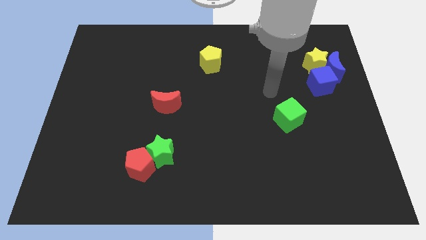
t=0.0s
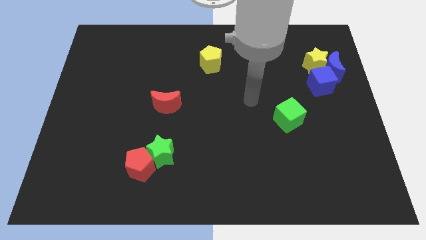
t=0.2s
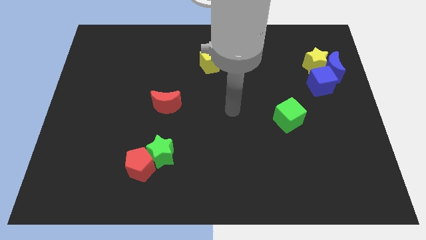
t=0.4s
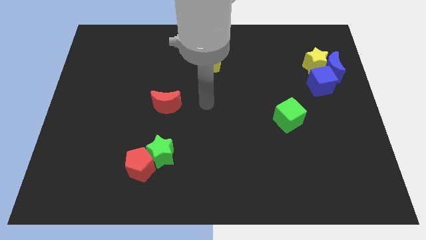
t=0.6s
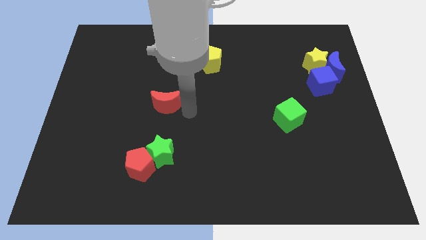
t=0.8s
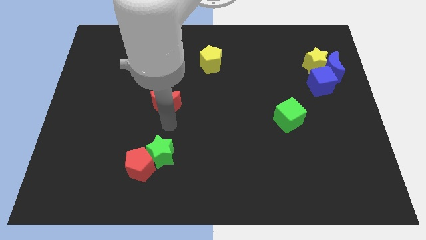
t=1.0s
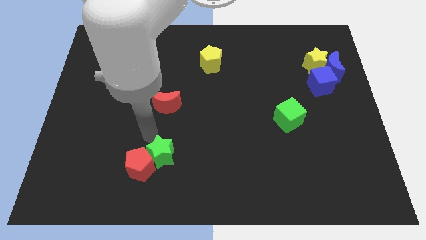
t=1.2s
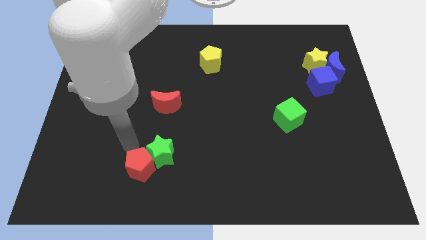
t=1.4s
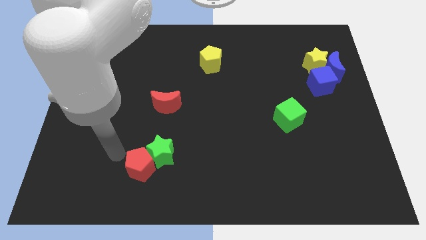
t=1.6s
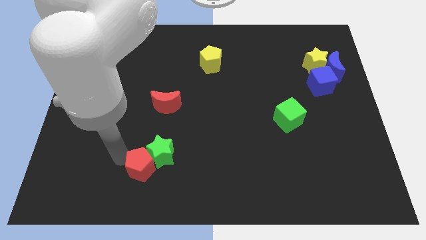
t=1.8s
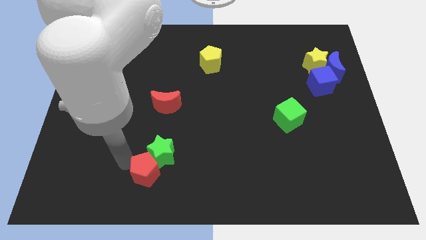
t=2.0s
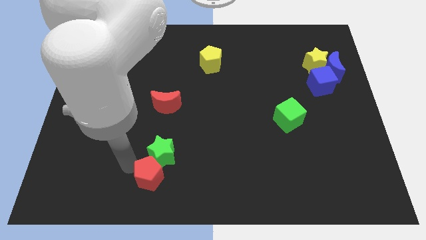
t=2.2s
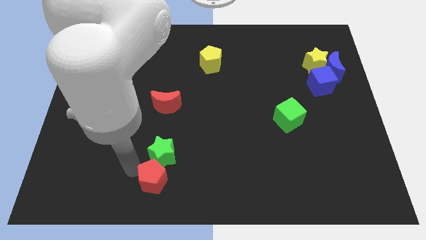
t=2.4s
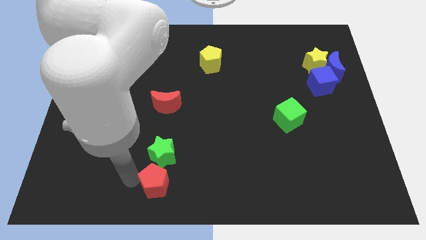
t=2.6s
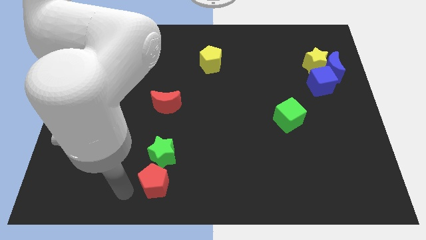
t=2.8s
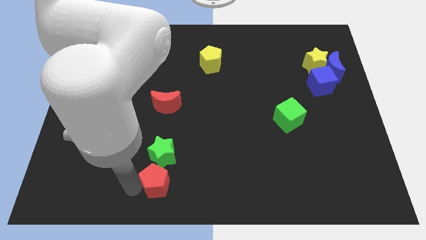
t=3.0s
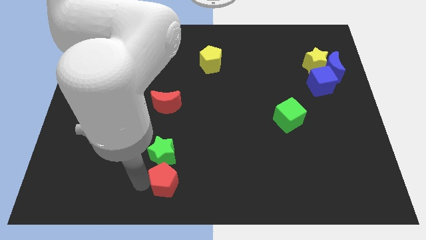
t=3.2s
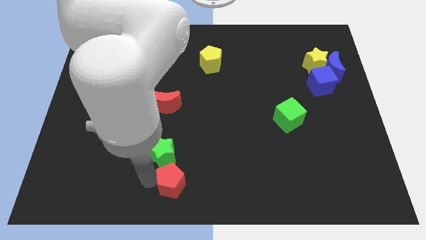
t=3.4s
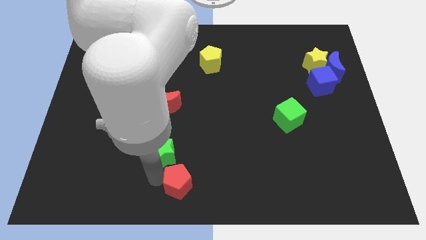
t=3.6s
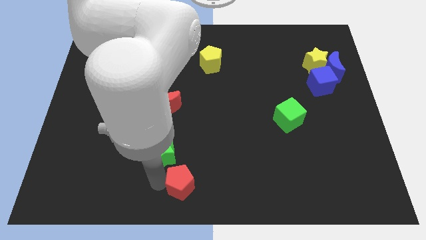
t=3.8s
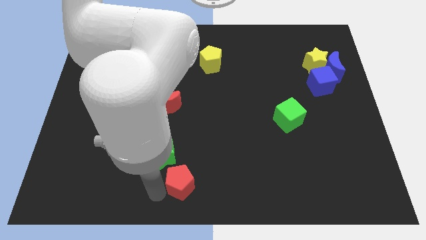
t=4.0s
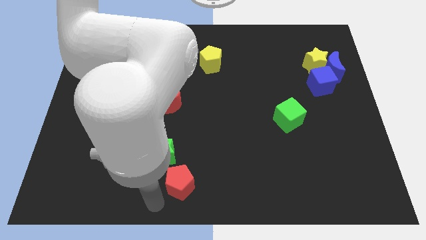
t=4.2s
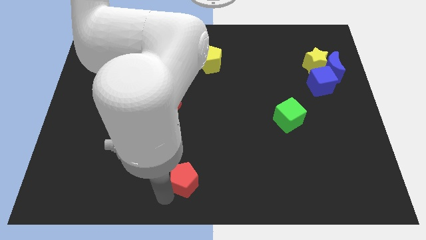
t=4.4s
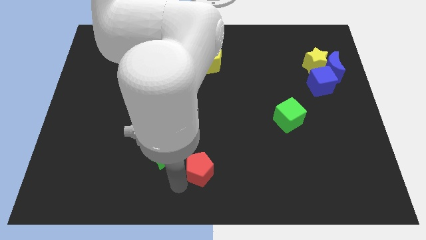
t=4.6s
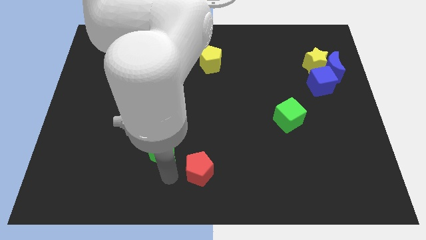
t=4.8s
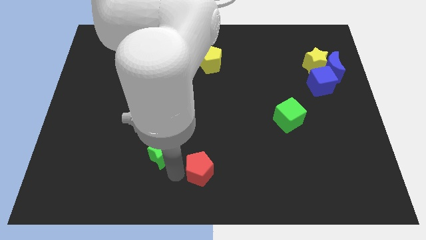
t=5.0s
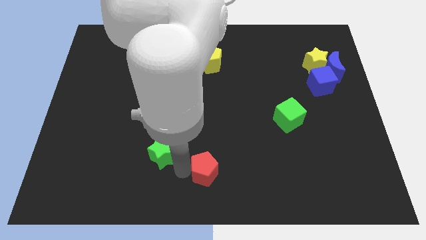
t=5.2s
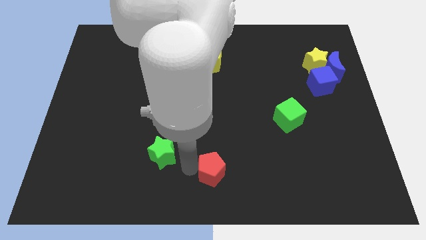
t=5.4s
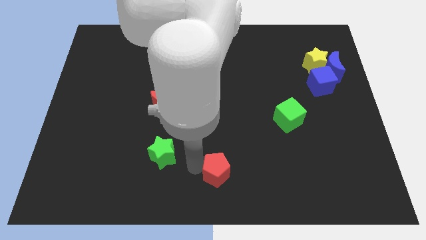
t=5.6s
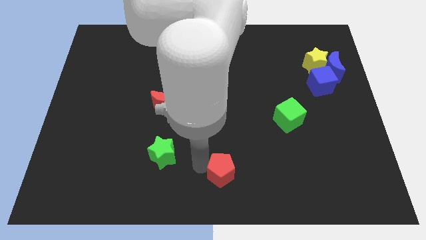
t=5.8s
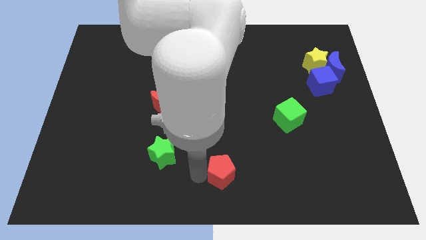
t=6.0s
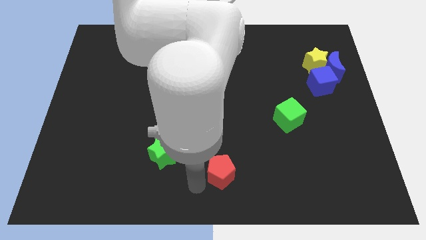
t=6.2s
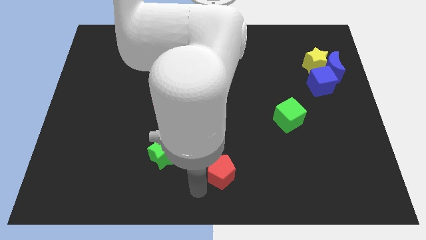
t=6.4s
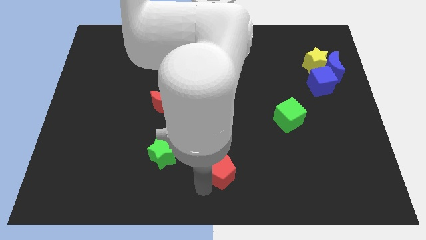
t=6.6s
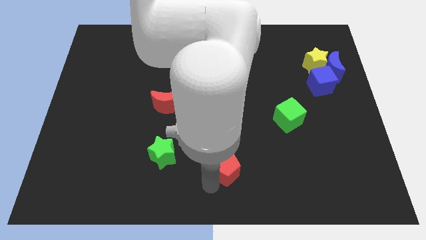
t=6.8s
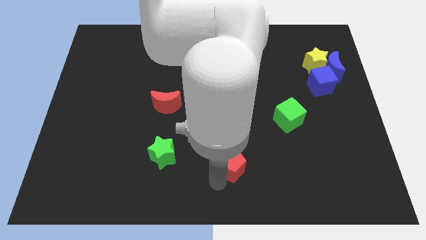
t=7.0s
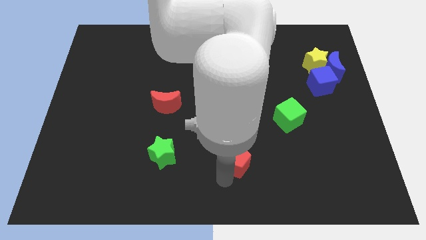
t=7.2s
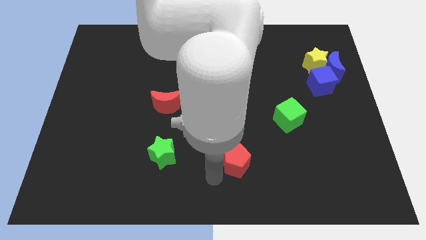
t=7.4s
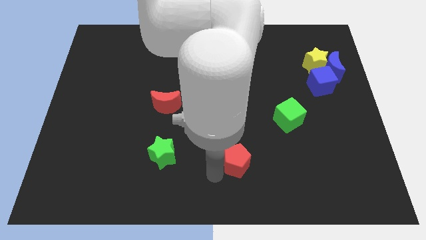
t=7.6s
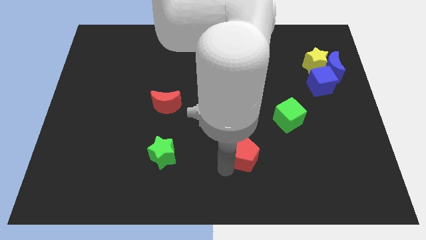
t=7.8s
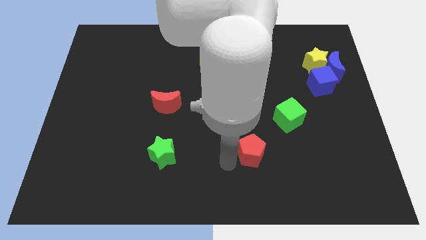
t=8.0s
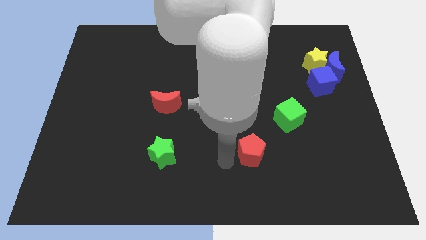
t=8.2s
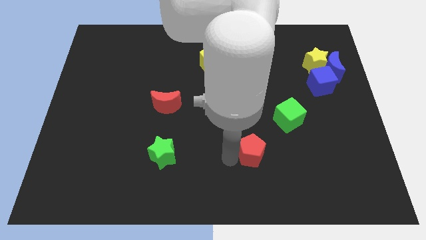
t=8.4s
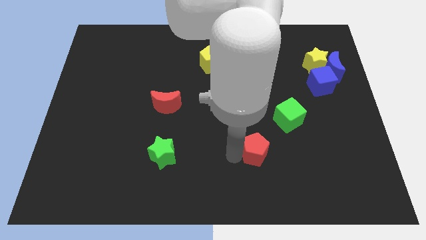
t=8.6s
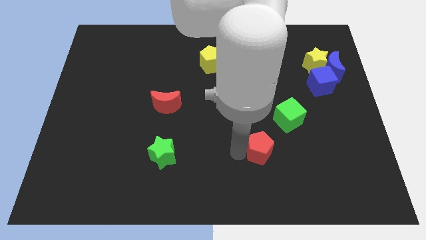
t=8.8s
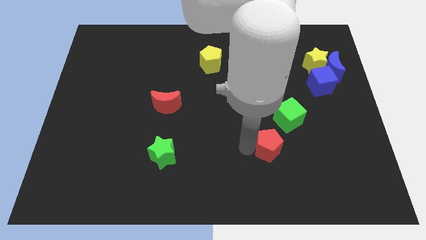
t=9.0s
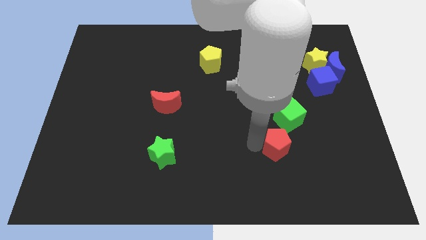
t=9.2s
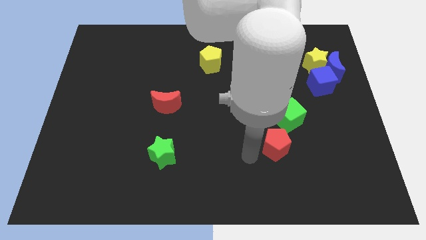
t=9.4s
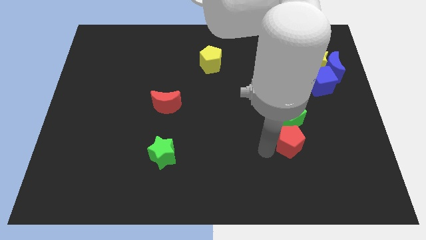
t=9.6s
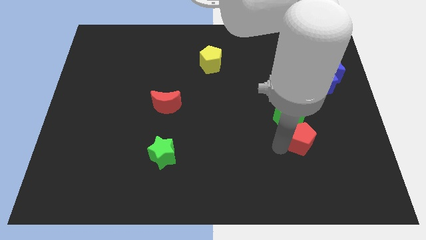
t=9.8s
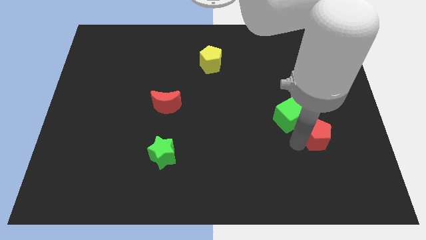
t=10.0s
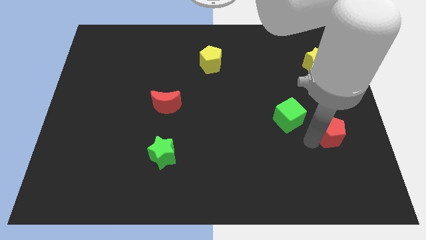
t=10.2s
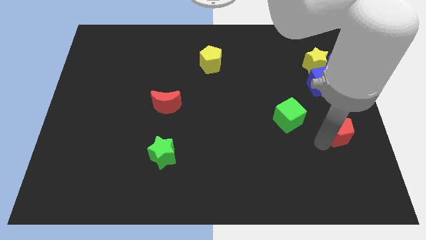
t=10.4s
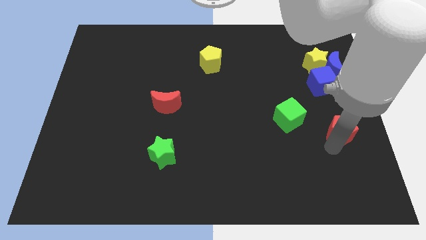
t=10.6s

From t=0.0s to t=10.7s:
move the red pentagon to the center right
